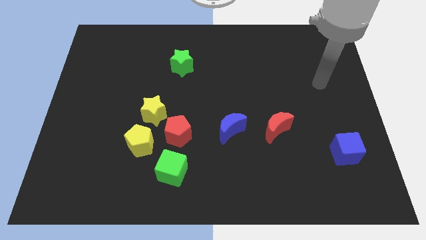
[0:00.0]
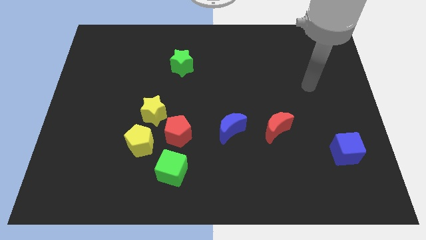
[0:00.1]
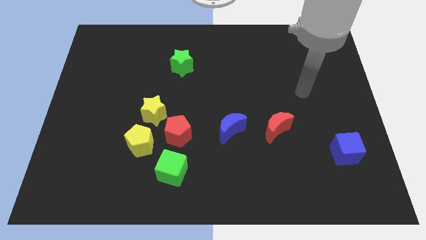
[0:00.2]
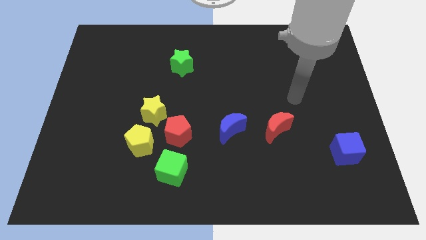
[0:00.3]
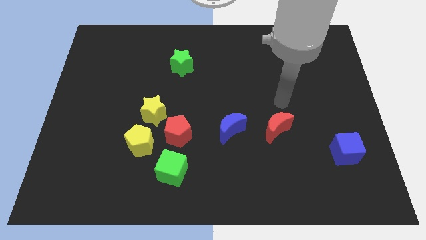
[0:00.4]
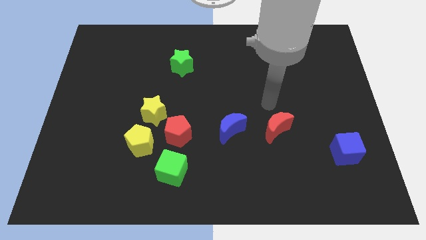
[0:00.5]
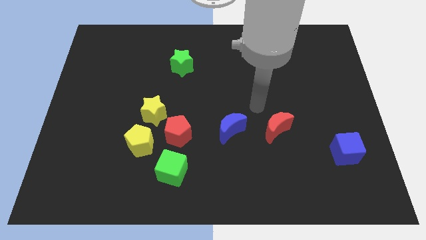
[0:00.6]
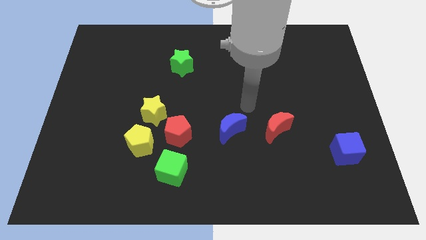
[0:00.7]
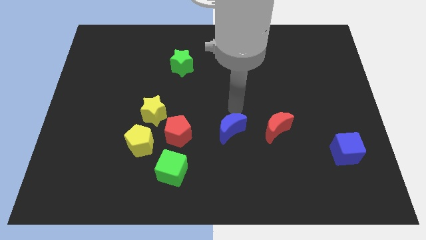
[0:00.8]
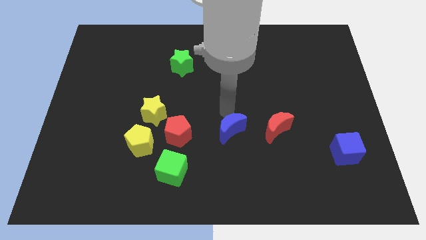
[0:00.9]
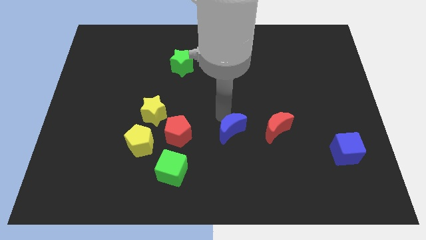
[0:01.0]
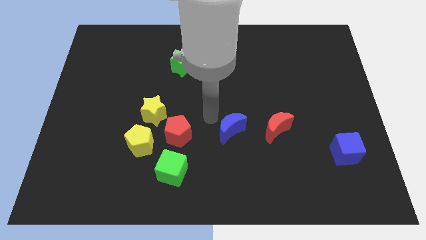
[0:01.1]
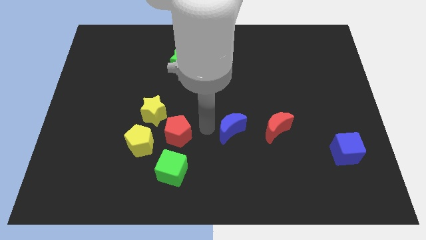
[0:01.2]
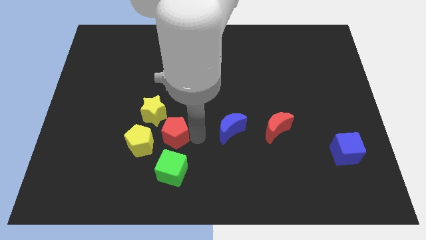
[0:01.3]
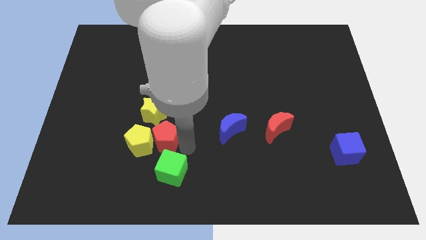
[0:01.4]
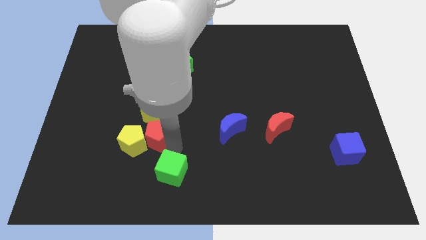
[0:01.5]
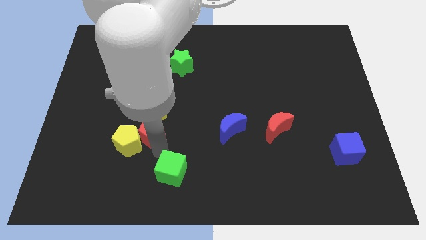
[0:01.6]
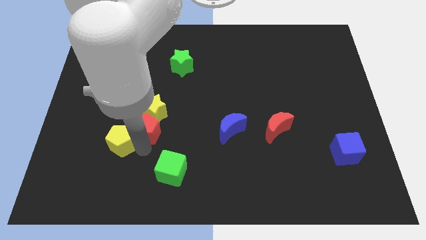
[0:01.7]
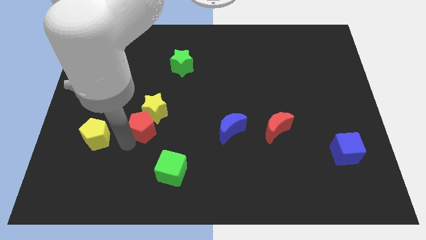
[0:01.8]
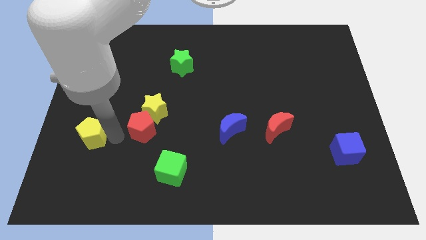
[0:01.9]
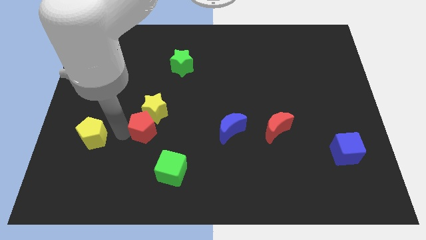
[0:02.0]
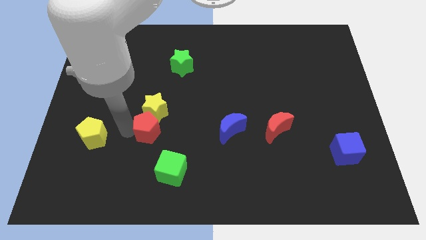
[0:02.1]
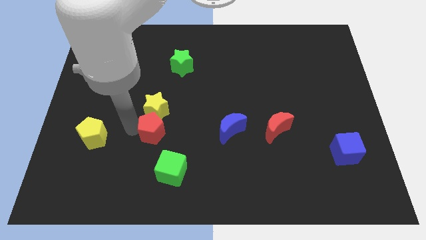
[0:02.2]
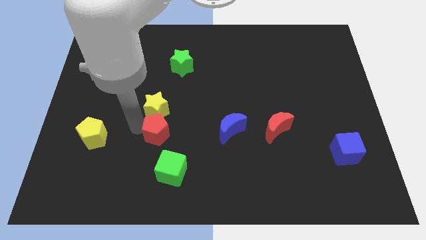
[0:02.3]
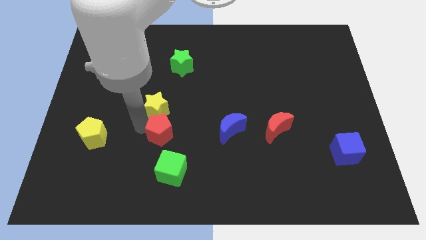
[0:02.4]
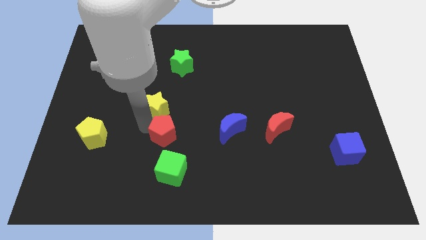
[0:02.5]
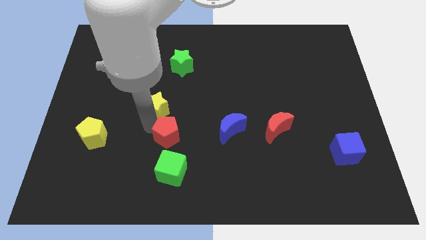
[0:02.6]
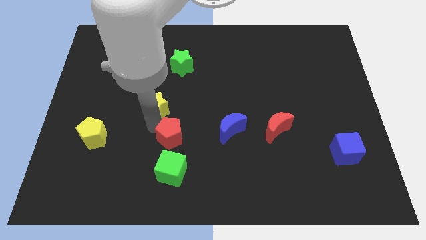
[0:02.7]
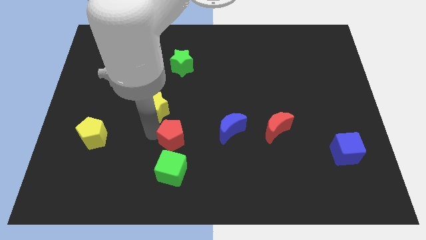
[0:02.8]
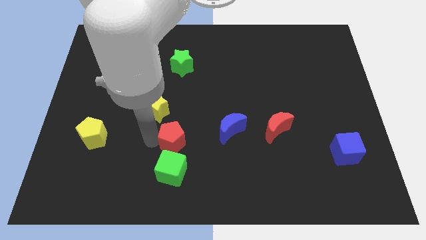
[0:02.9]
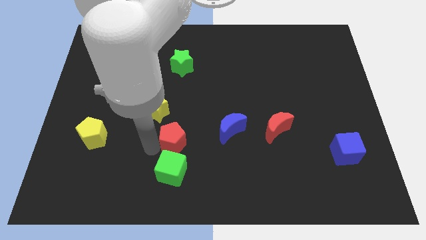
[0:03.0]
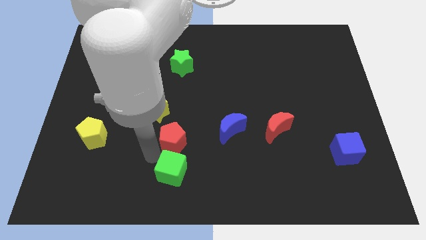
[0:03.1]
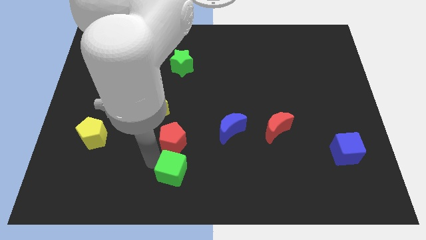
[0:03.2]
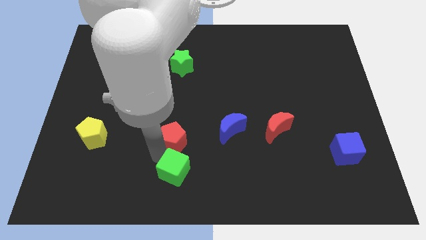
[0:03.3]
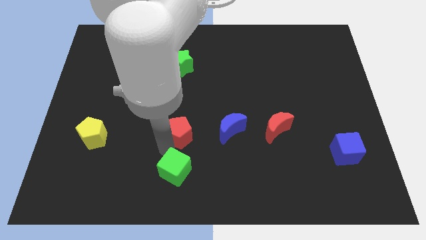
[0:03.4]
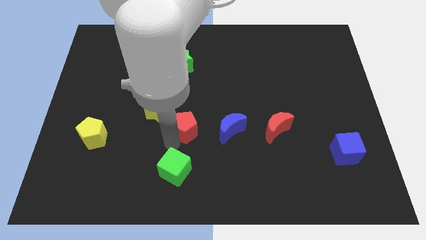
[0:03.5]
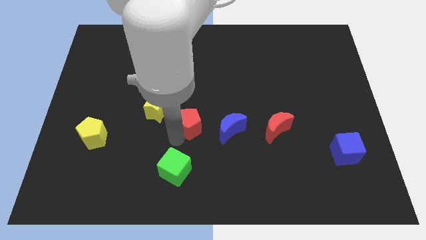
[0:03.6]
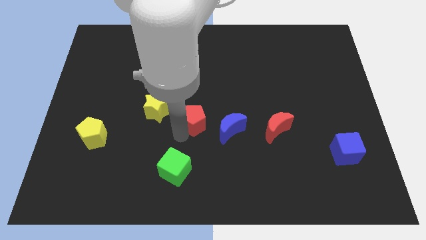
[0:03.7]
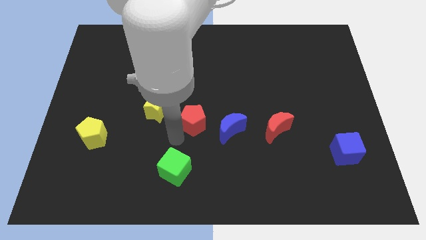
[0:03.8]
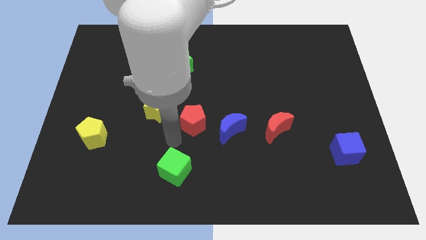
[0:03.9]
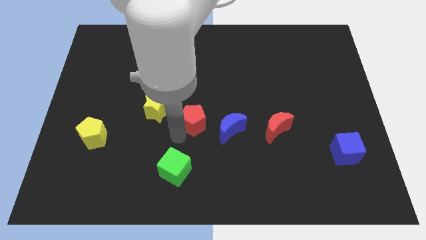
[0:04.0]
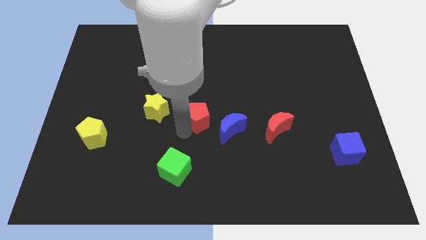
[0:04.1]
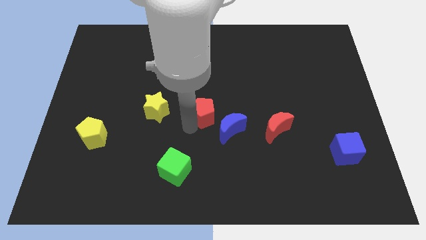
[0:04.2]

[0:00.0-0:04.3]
slightly move the red pentagon up and right

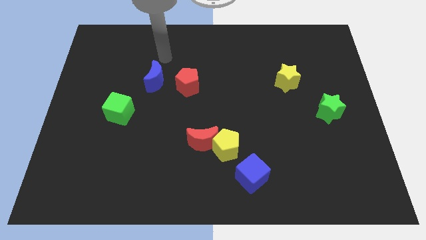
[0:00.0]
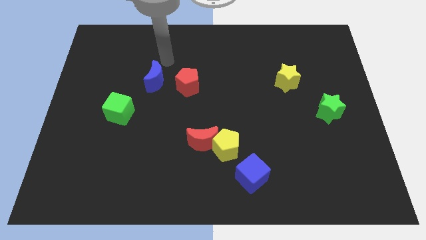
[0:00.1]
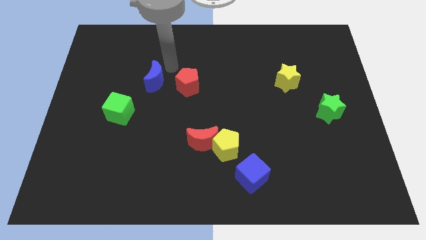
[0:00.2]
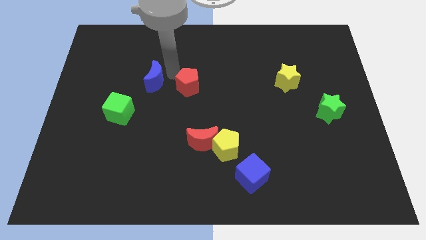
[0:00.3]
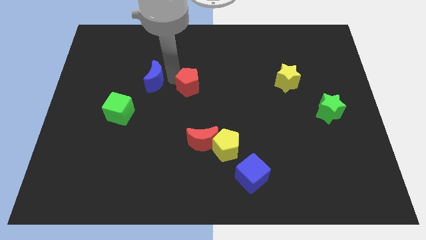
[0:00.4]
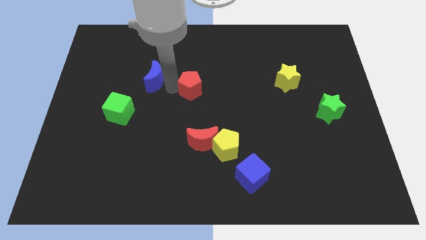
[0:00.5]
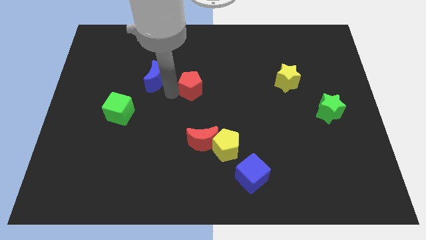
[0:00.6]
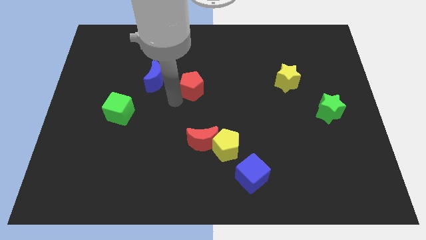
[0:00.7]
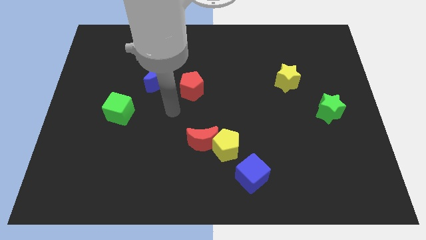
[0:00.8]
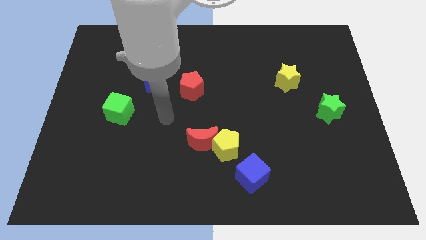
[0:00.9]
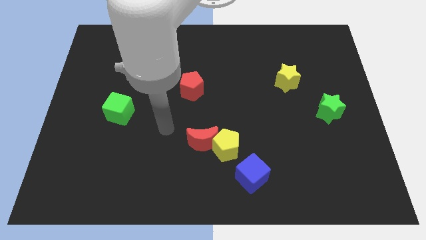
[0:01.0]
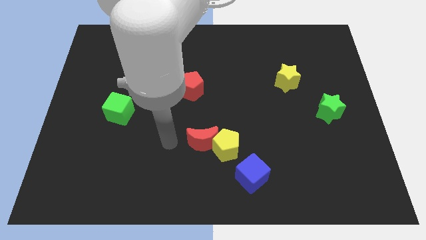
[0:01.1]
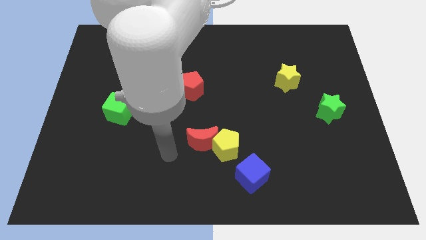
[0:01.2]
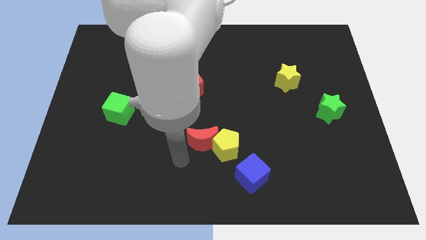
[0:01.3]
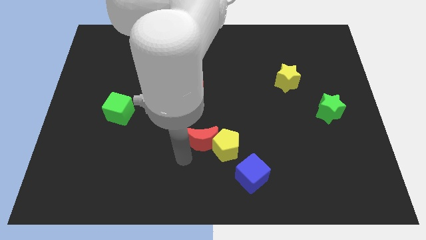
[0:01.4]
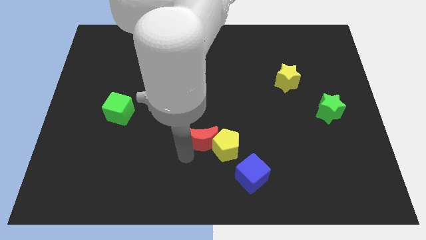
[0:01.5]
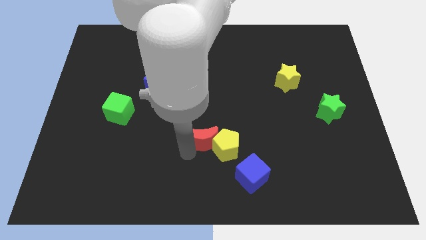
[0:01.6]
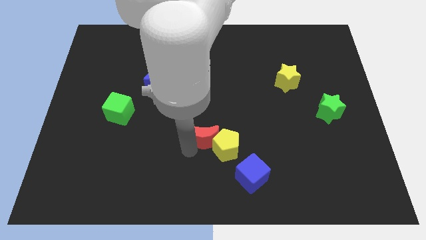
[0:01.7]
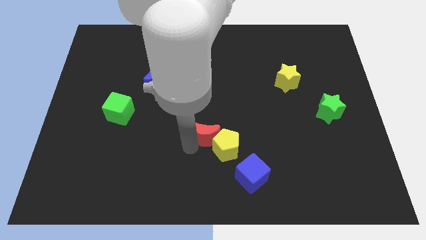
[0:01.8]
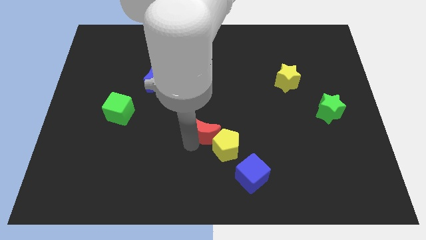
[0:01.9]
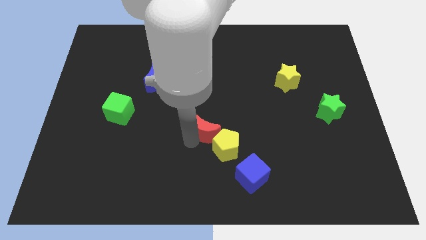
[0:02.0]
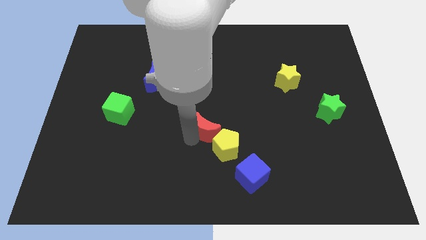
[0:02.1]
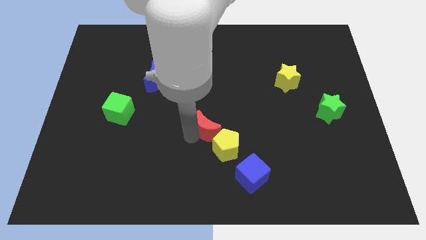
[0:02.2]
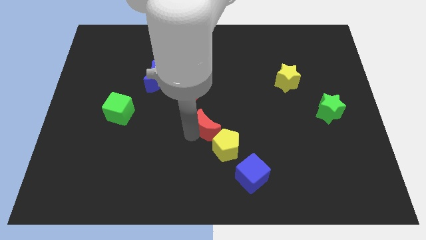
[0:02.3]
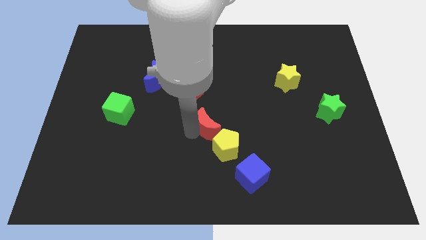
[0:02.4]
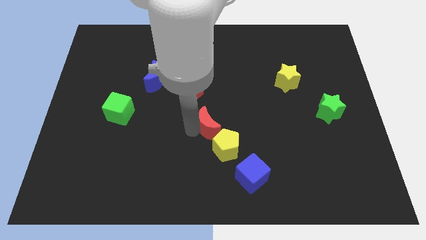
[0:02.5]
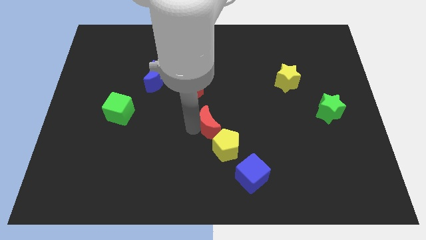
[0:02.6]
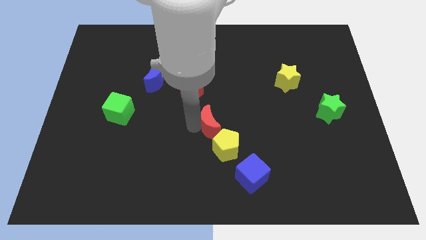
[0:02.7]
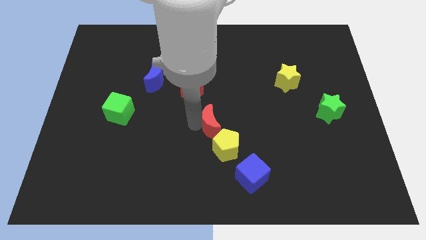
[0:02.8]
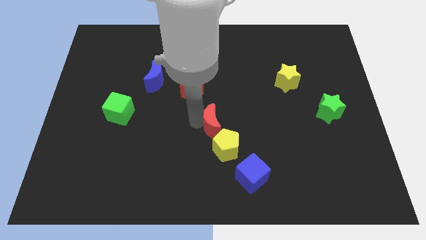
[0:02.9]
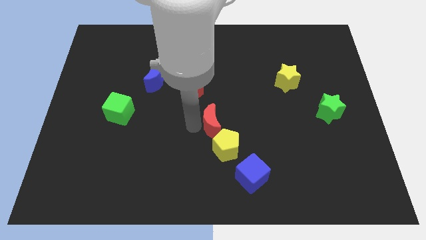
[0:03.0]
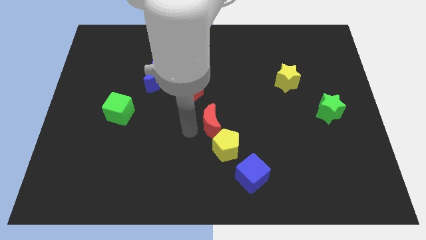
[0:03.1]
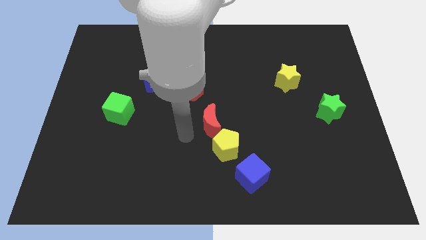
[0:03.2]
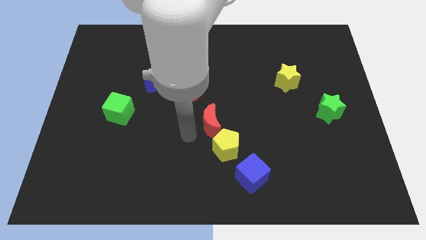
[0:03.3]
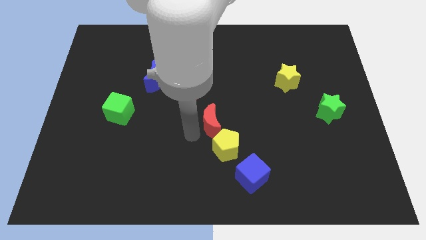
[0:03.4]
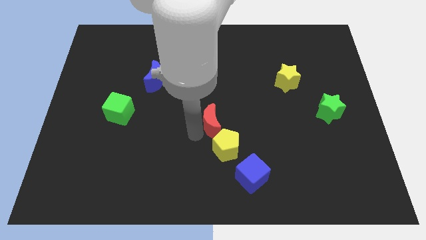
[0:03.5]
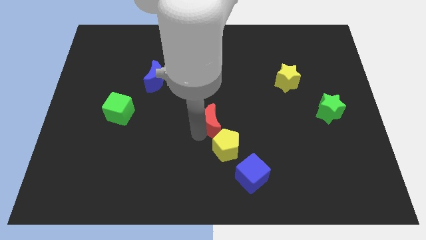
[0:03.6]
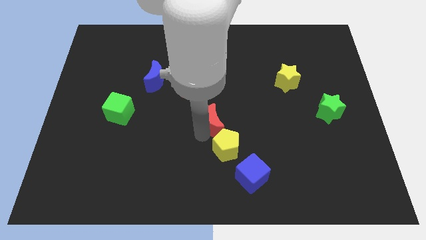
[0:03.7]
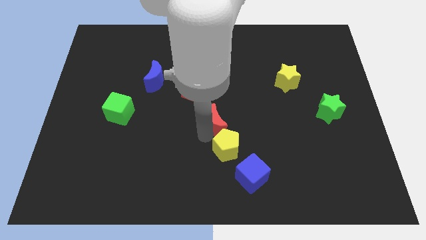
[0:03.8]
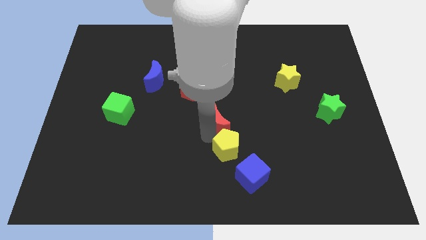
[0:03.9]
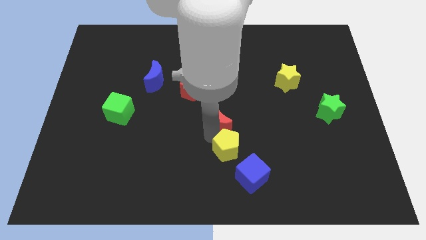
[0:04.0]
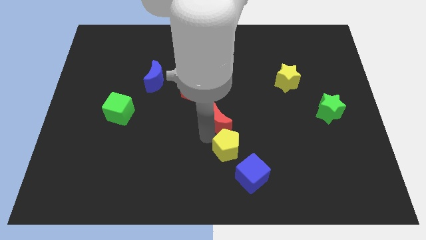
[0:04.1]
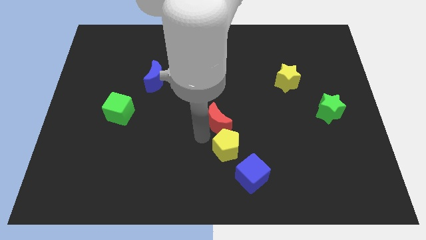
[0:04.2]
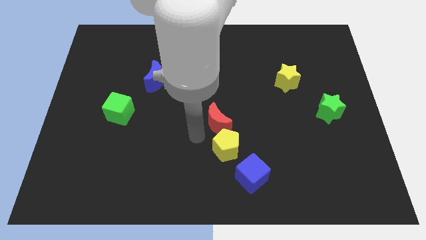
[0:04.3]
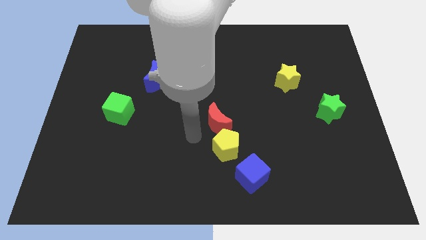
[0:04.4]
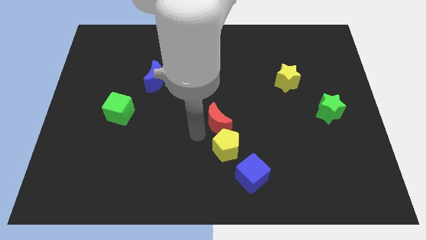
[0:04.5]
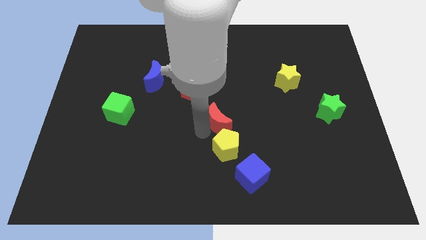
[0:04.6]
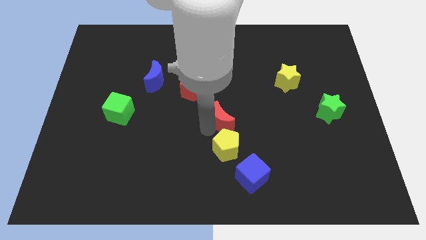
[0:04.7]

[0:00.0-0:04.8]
move the red moon up and right slightly
